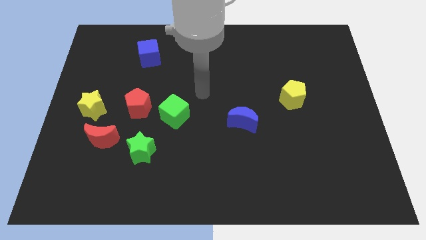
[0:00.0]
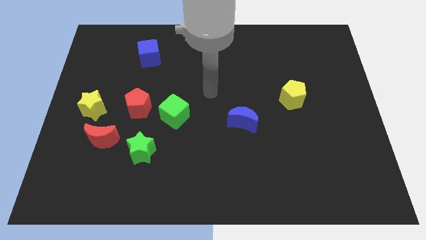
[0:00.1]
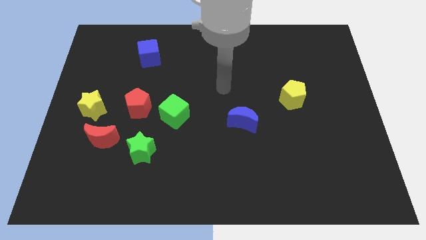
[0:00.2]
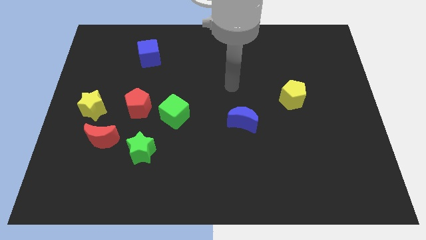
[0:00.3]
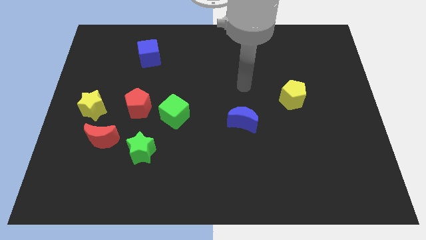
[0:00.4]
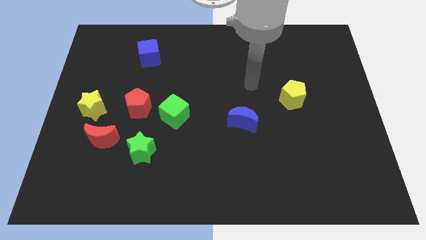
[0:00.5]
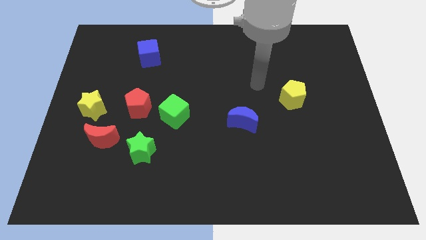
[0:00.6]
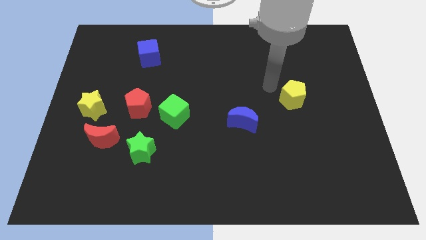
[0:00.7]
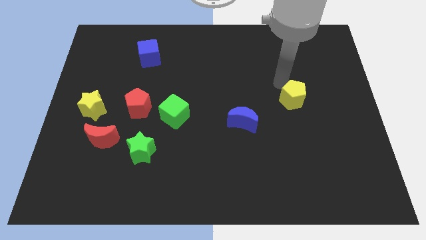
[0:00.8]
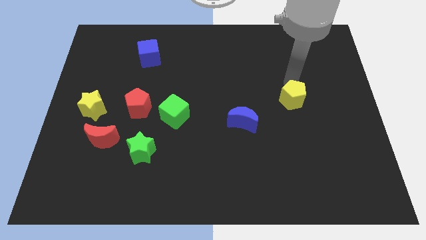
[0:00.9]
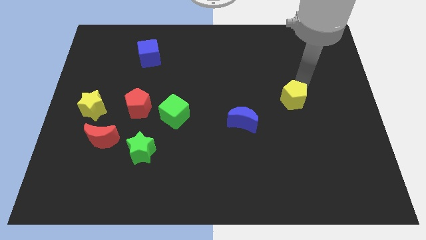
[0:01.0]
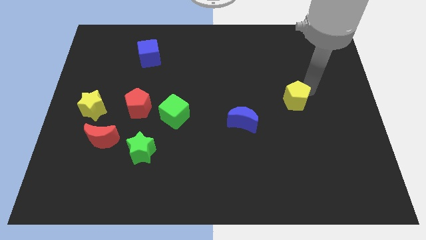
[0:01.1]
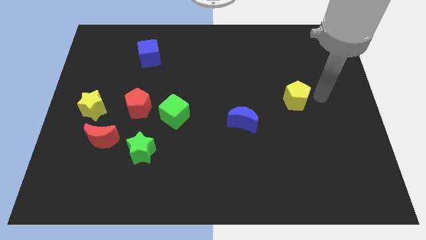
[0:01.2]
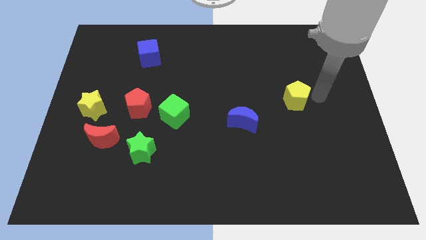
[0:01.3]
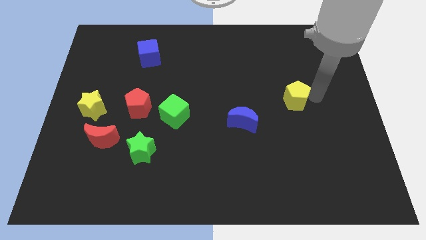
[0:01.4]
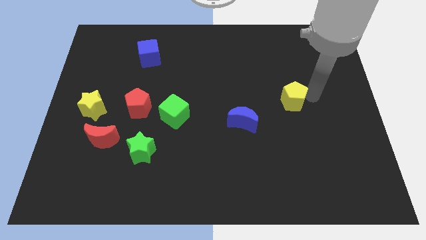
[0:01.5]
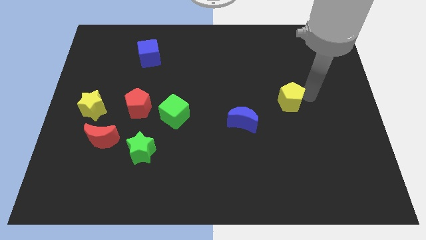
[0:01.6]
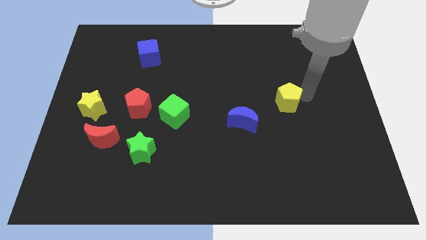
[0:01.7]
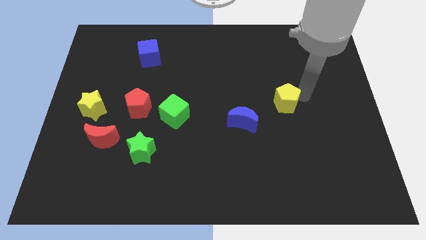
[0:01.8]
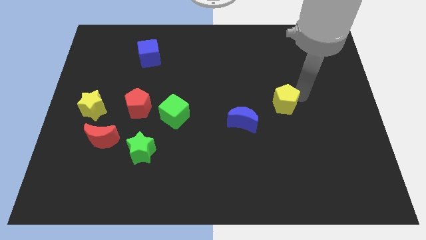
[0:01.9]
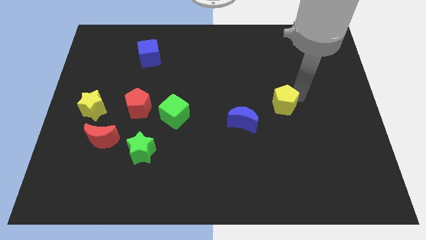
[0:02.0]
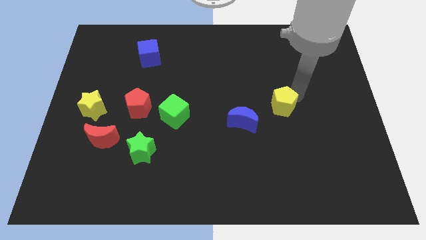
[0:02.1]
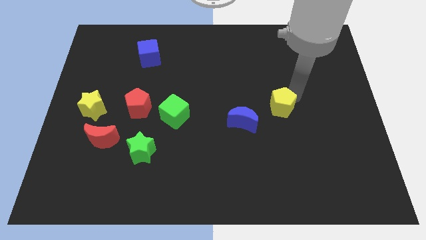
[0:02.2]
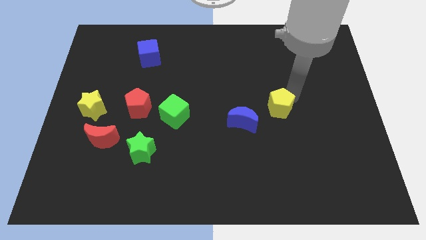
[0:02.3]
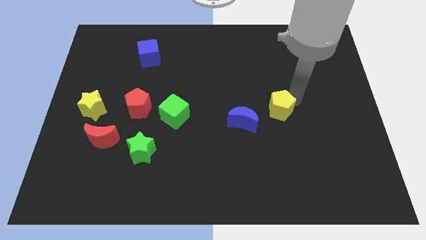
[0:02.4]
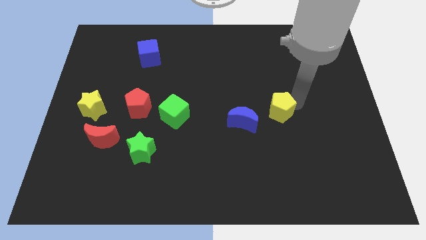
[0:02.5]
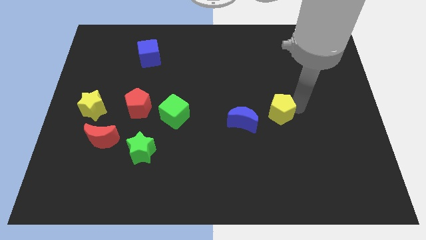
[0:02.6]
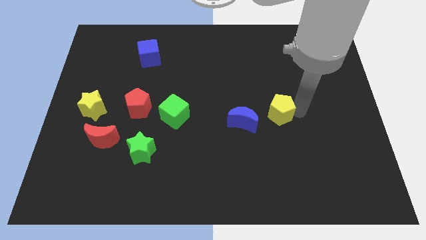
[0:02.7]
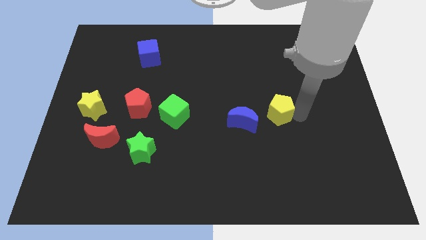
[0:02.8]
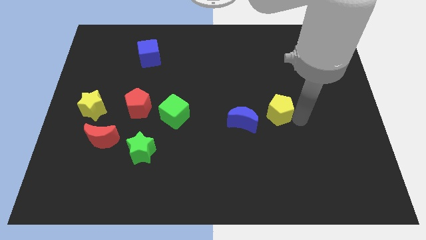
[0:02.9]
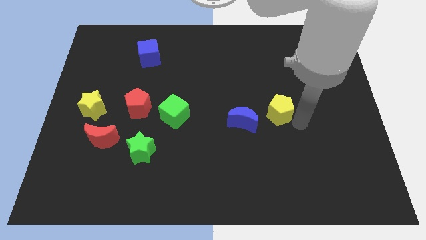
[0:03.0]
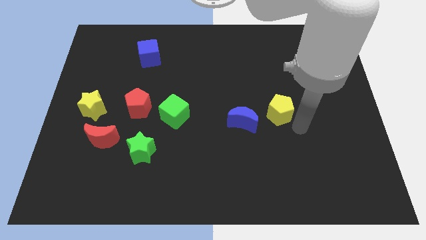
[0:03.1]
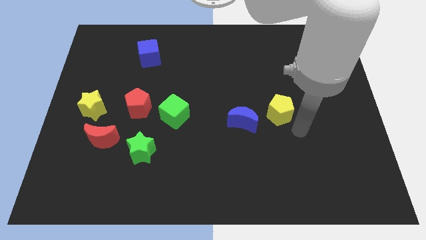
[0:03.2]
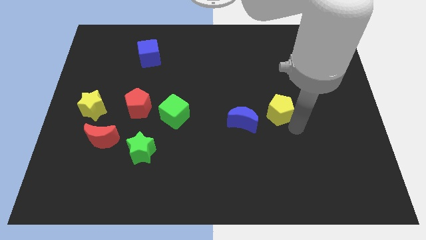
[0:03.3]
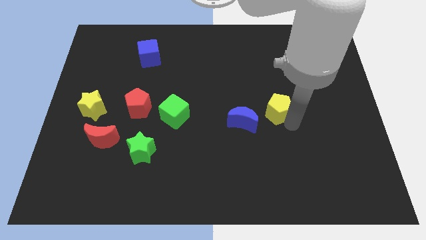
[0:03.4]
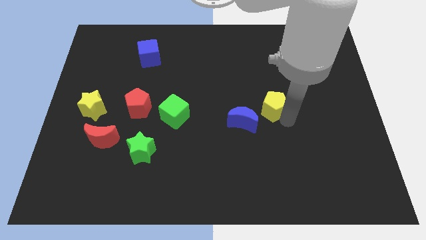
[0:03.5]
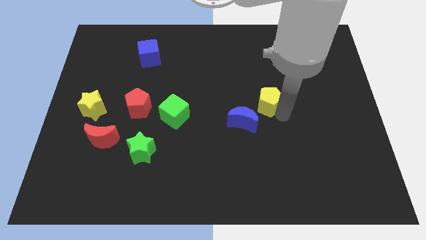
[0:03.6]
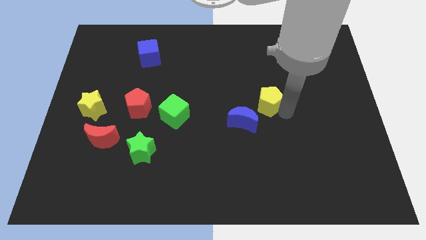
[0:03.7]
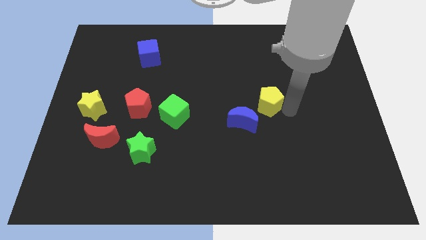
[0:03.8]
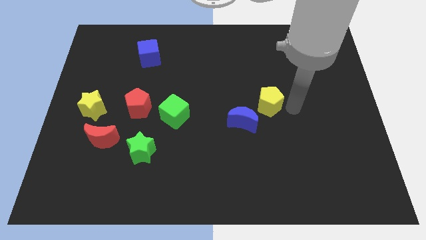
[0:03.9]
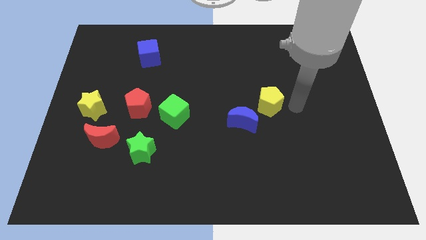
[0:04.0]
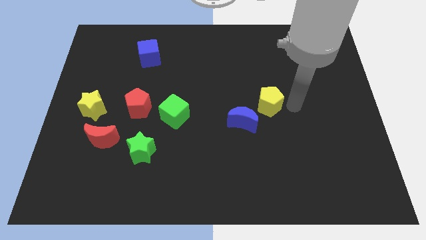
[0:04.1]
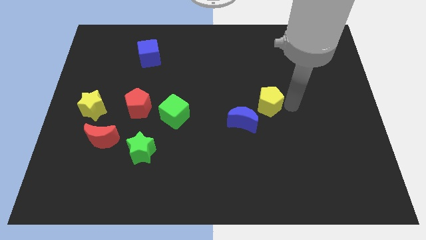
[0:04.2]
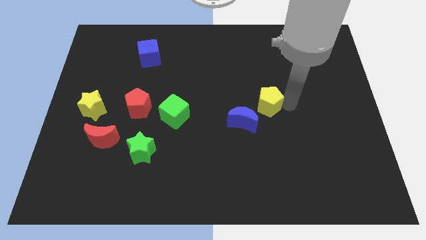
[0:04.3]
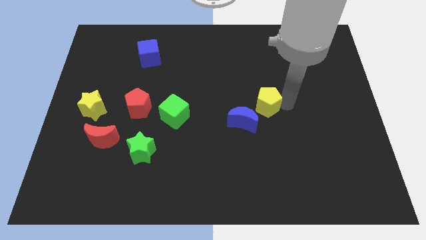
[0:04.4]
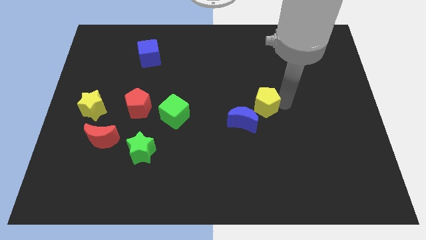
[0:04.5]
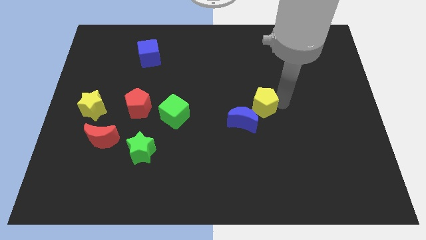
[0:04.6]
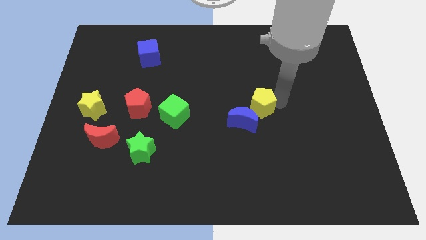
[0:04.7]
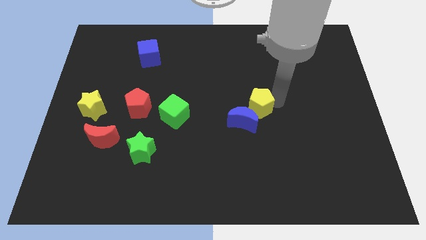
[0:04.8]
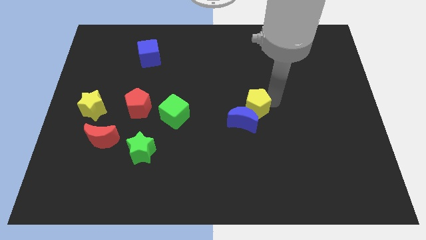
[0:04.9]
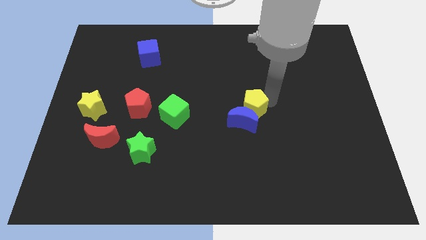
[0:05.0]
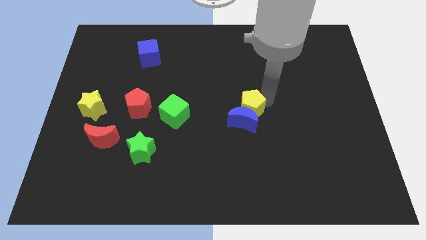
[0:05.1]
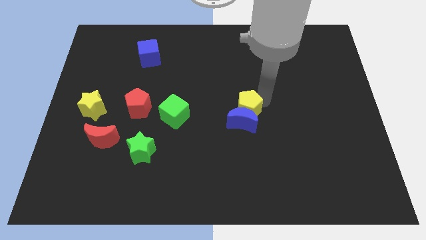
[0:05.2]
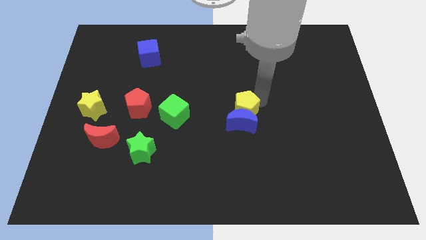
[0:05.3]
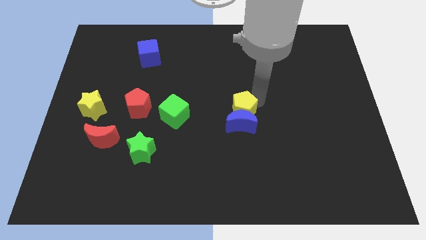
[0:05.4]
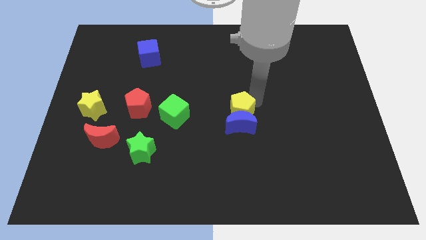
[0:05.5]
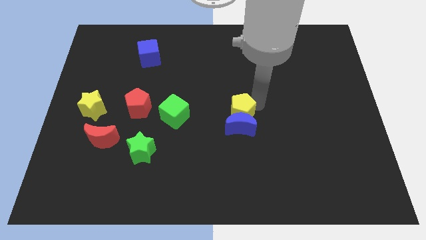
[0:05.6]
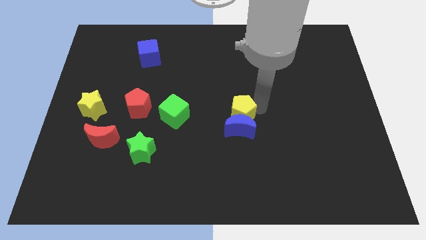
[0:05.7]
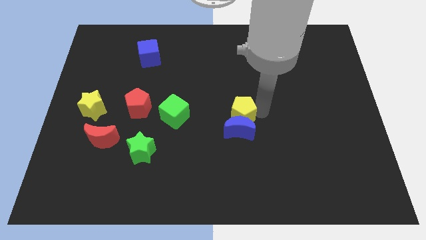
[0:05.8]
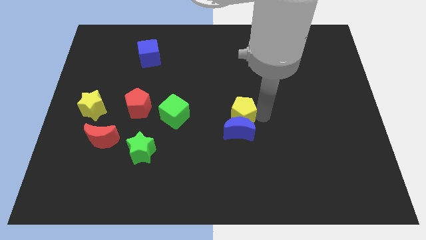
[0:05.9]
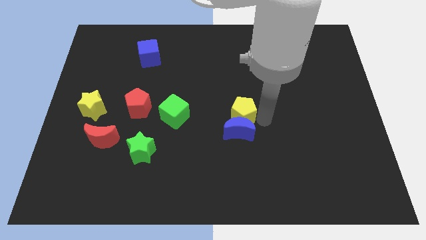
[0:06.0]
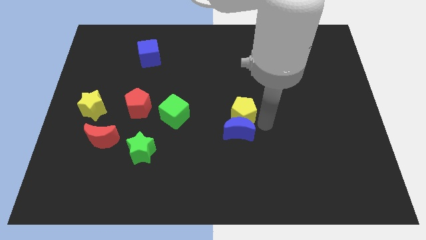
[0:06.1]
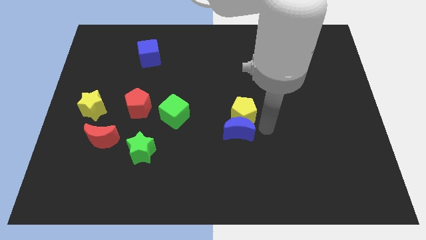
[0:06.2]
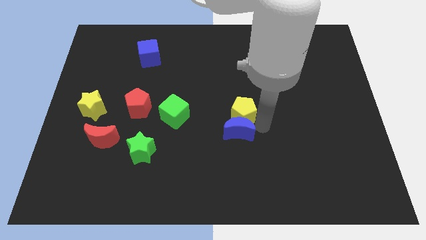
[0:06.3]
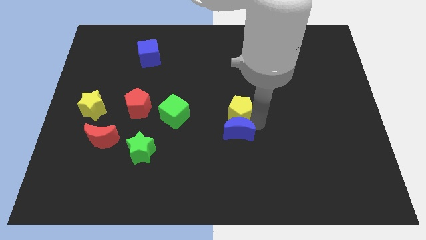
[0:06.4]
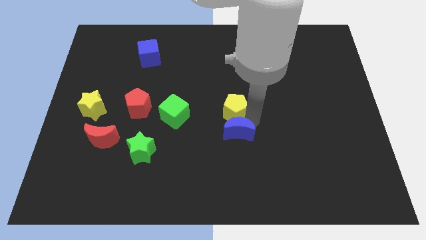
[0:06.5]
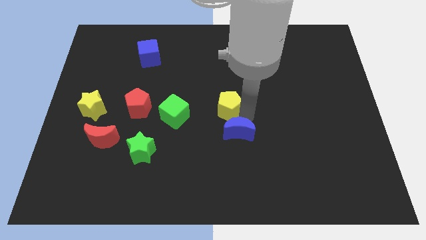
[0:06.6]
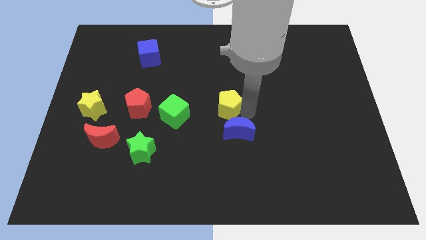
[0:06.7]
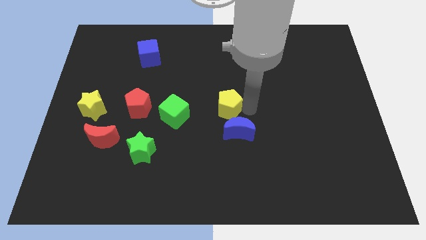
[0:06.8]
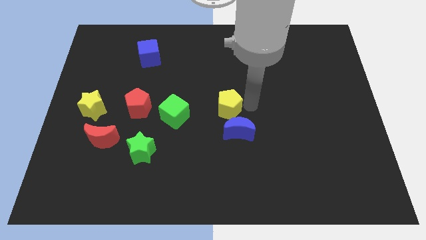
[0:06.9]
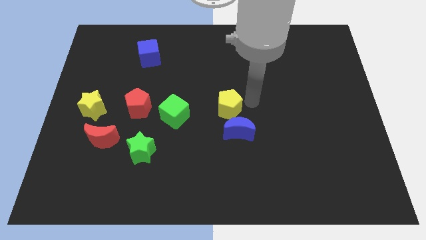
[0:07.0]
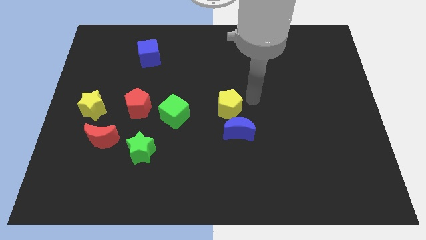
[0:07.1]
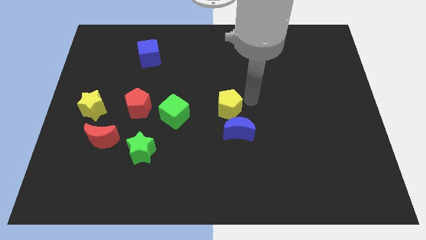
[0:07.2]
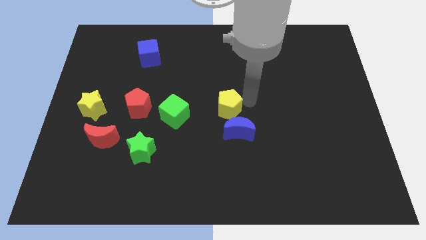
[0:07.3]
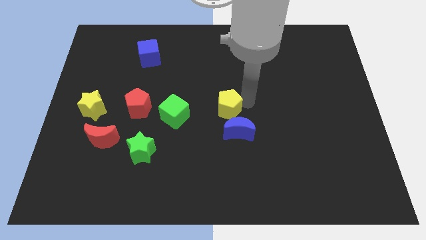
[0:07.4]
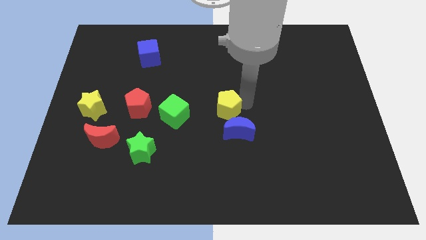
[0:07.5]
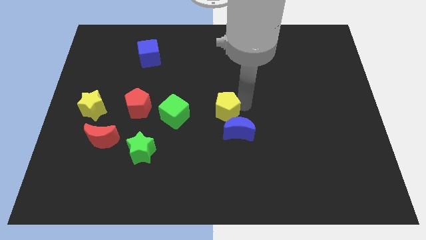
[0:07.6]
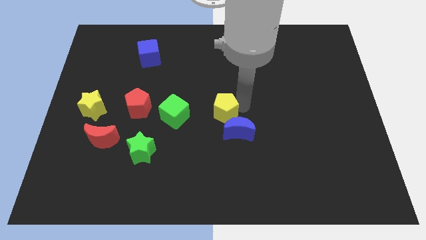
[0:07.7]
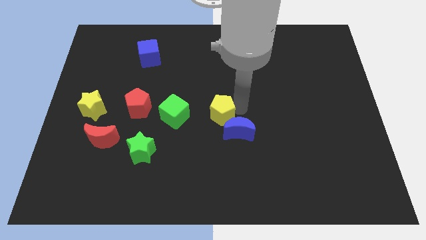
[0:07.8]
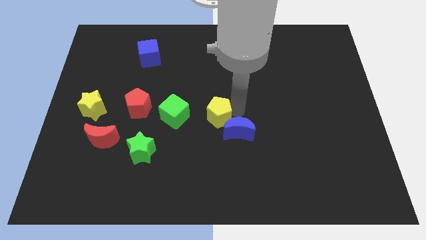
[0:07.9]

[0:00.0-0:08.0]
push the yellow pentagon left of the blue moon
